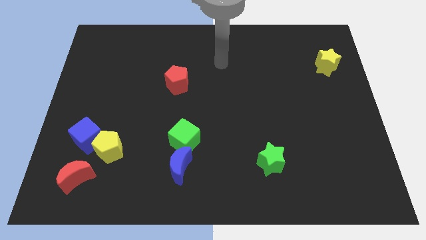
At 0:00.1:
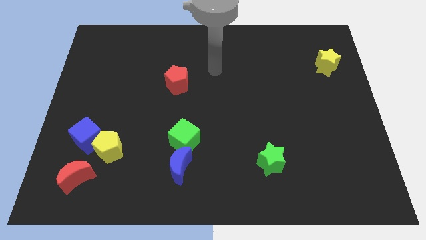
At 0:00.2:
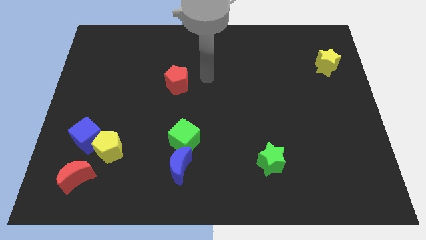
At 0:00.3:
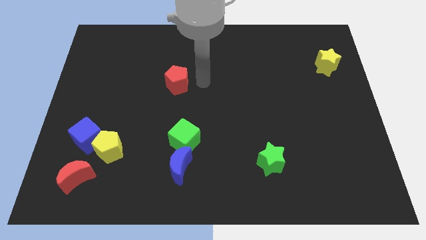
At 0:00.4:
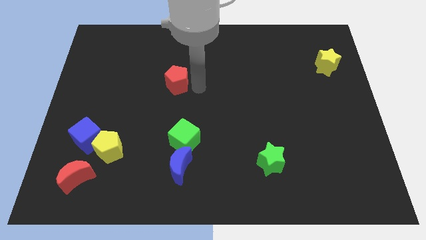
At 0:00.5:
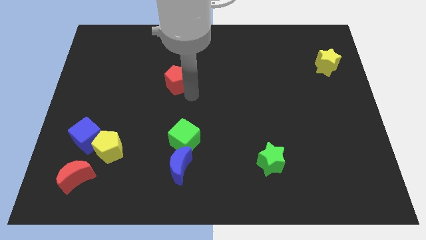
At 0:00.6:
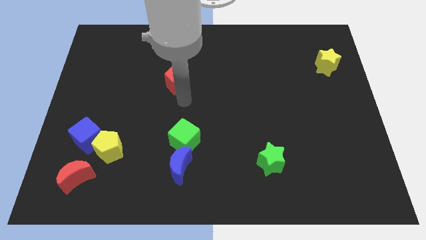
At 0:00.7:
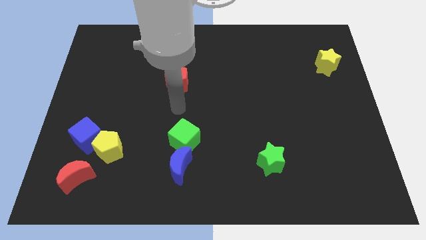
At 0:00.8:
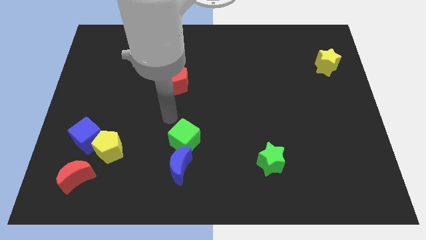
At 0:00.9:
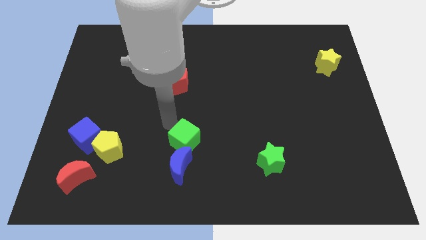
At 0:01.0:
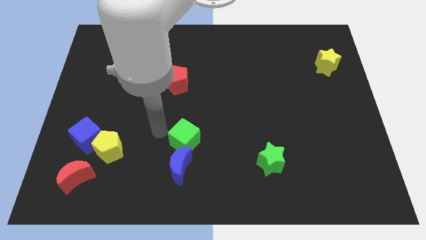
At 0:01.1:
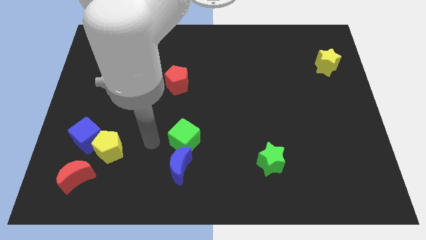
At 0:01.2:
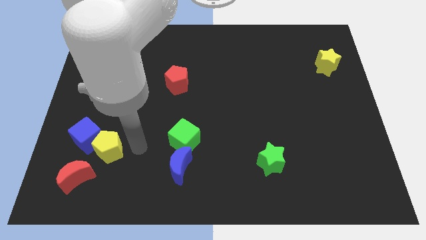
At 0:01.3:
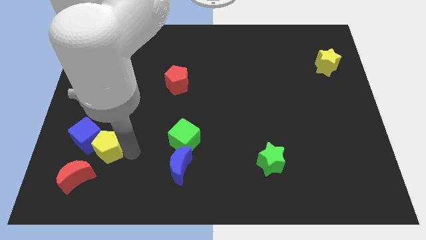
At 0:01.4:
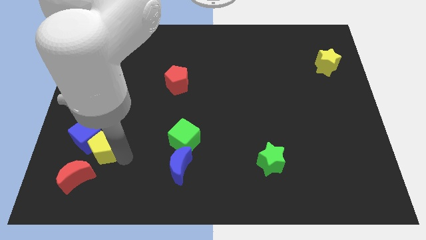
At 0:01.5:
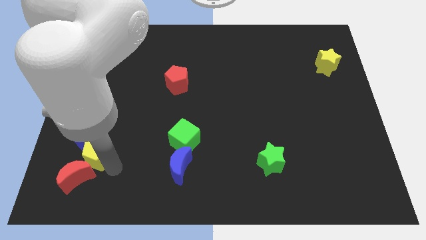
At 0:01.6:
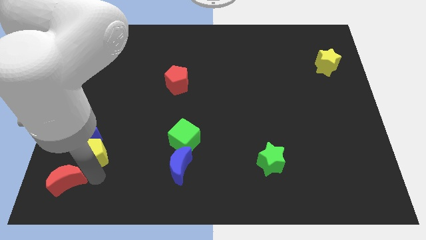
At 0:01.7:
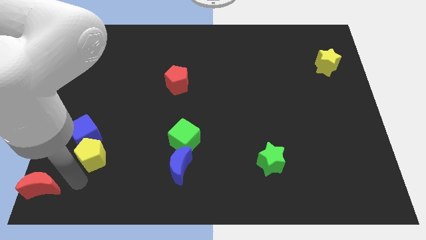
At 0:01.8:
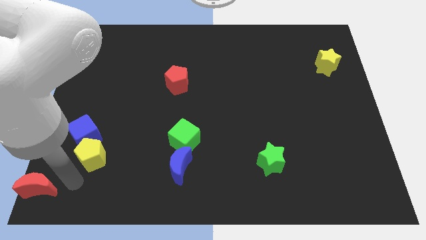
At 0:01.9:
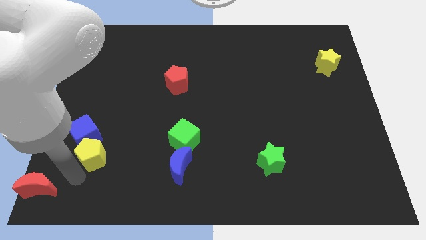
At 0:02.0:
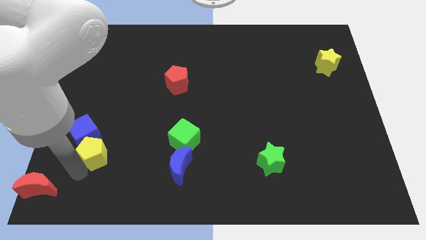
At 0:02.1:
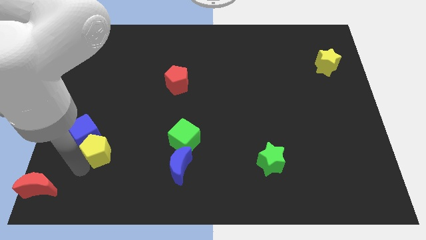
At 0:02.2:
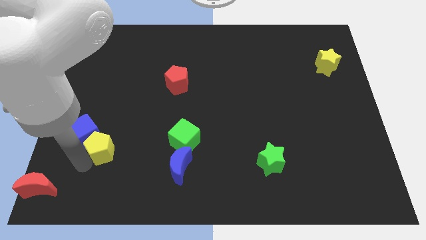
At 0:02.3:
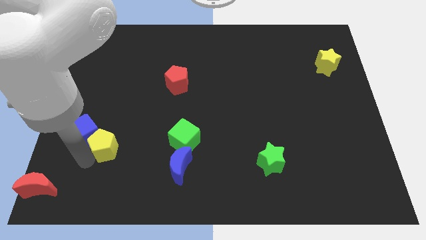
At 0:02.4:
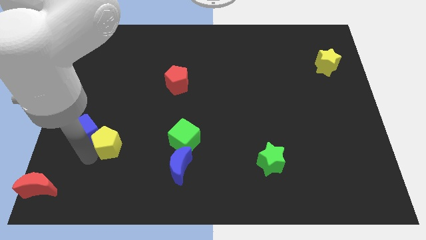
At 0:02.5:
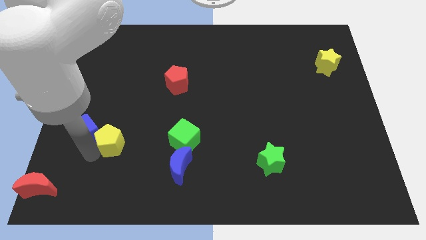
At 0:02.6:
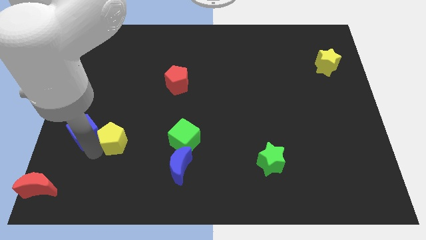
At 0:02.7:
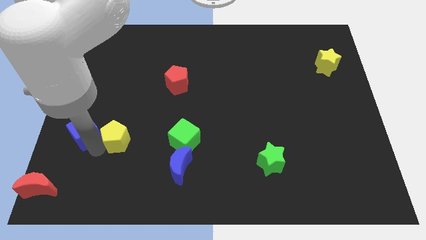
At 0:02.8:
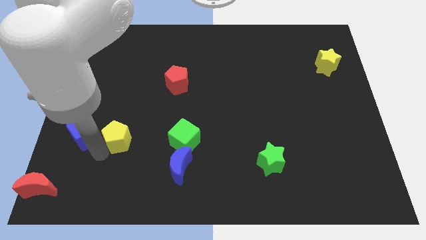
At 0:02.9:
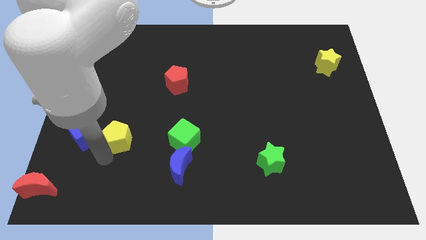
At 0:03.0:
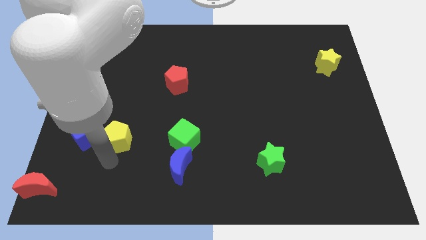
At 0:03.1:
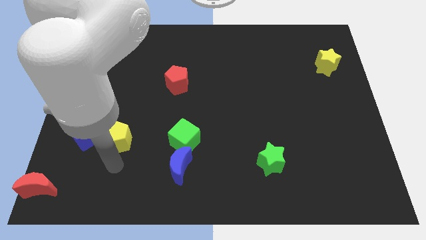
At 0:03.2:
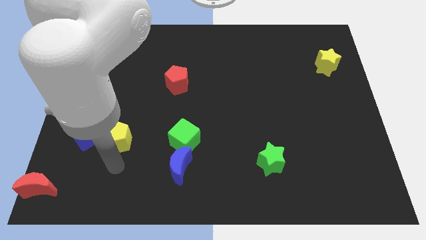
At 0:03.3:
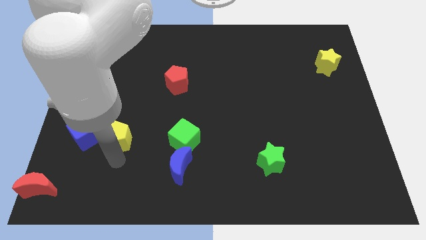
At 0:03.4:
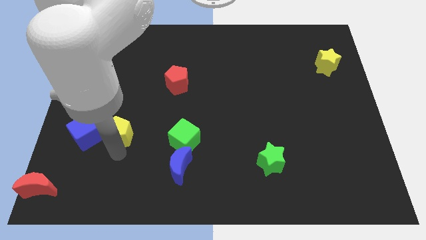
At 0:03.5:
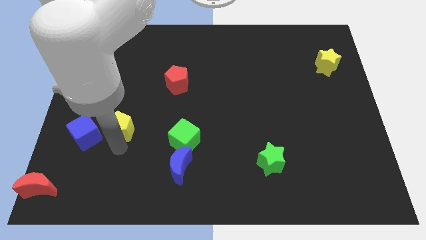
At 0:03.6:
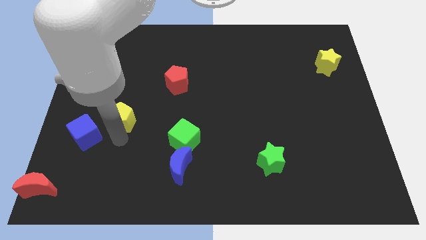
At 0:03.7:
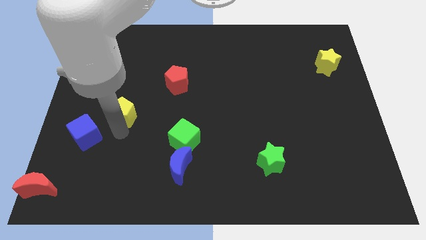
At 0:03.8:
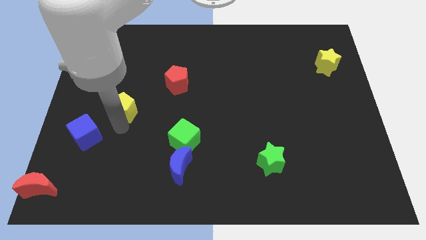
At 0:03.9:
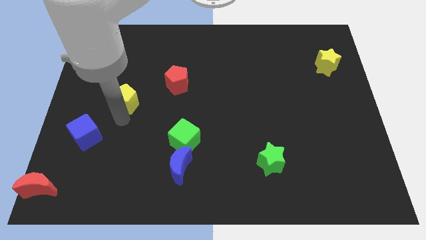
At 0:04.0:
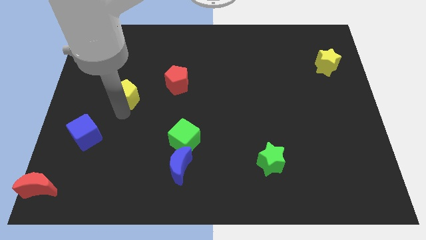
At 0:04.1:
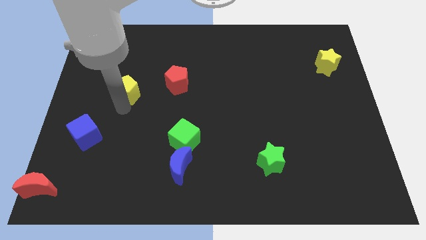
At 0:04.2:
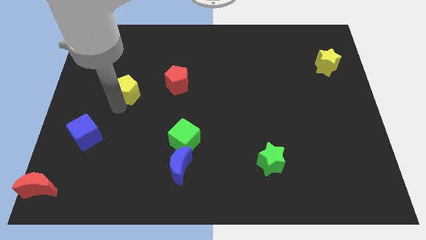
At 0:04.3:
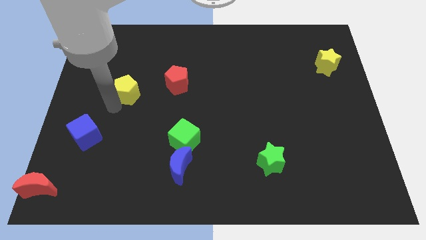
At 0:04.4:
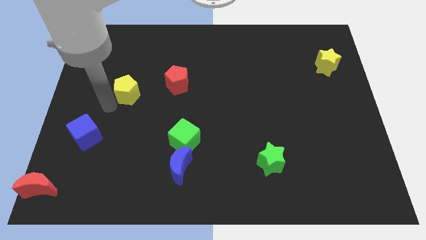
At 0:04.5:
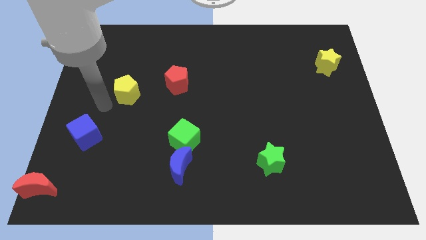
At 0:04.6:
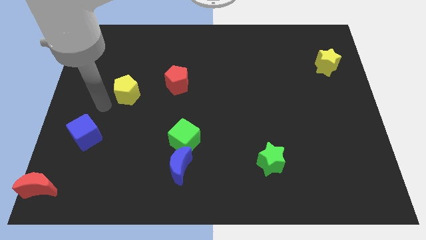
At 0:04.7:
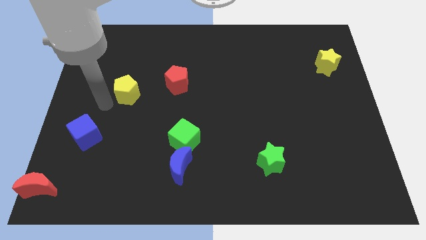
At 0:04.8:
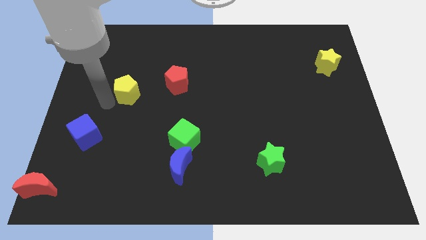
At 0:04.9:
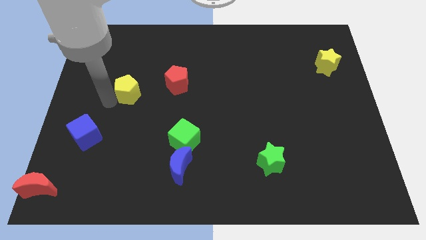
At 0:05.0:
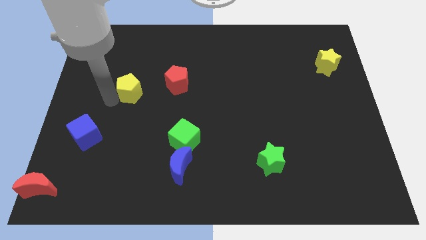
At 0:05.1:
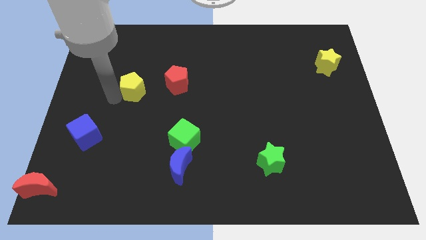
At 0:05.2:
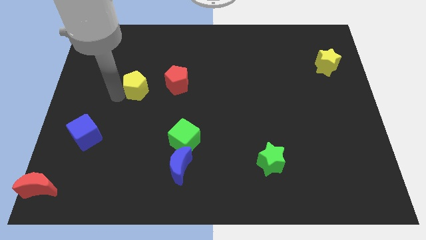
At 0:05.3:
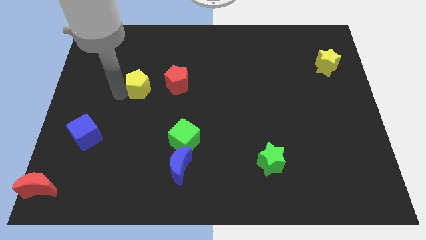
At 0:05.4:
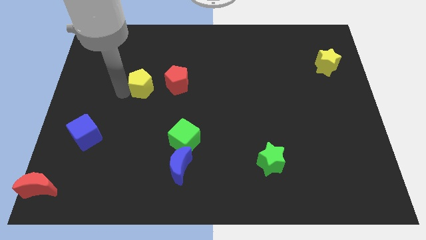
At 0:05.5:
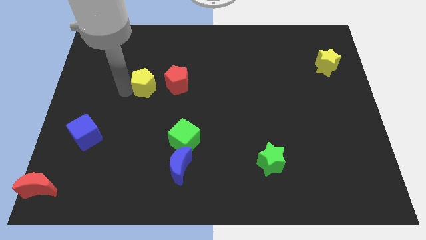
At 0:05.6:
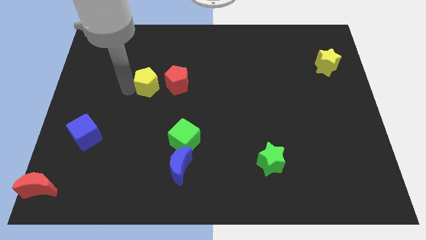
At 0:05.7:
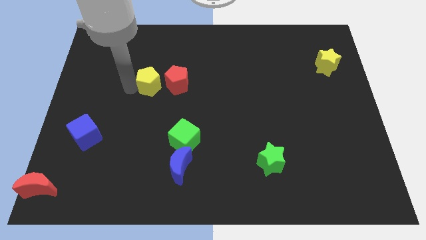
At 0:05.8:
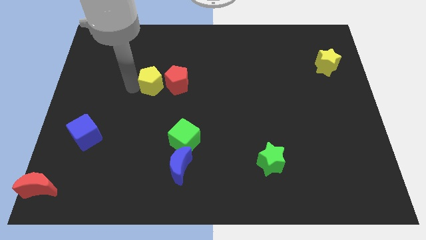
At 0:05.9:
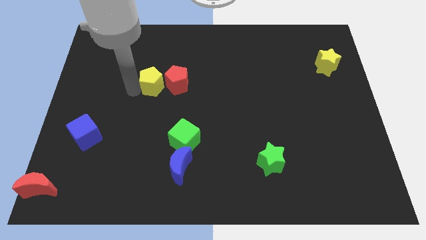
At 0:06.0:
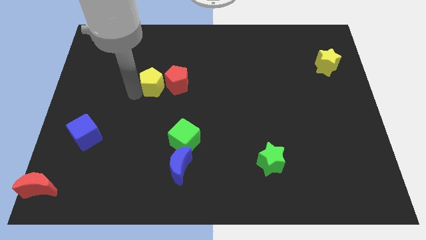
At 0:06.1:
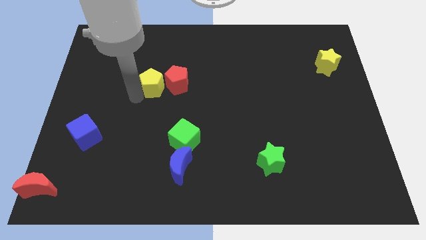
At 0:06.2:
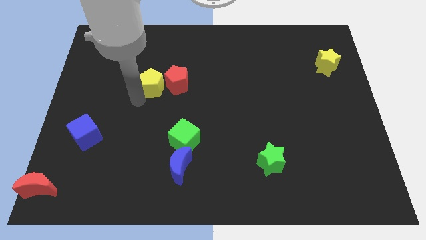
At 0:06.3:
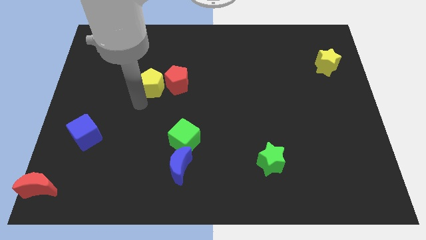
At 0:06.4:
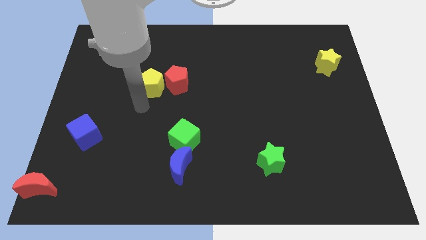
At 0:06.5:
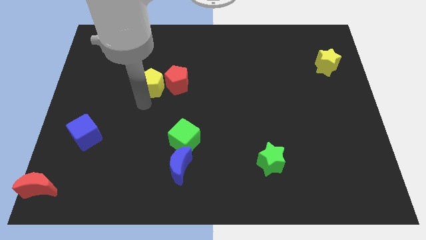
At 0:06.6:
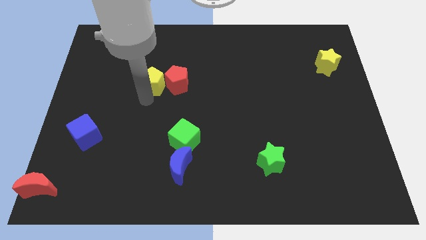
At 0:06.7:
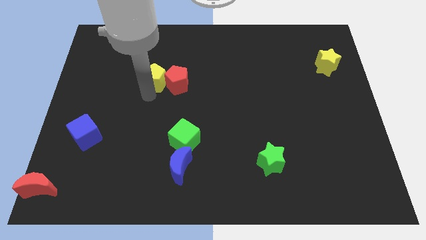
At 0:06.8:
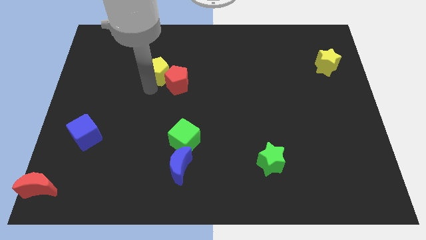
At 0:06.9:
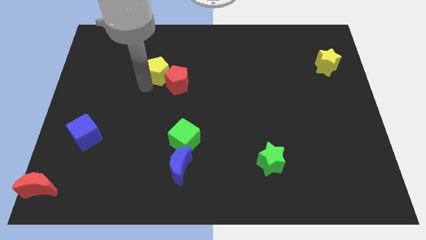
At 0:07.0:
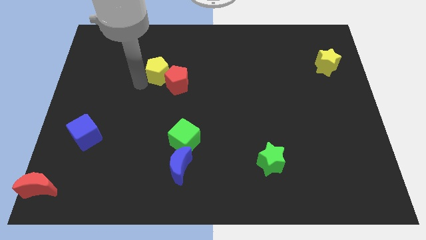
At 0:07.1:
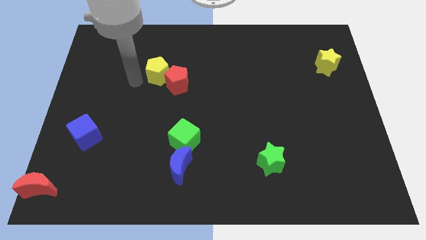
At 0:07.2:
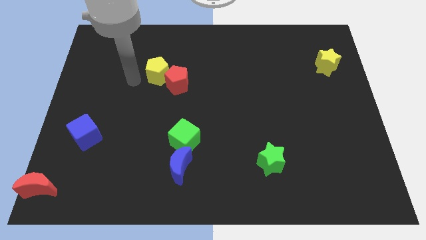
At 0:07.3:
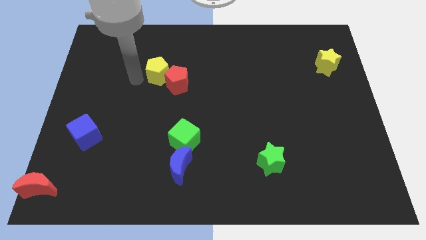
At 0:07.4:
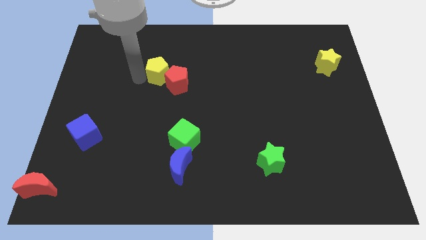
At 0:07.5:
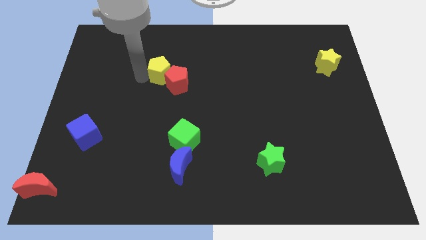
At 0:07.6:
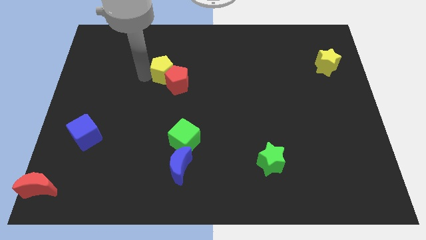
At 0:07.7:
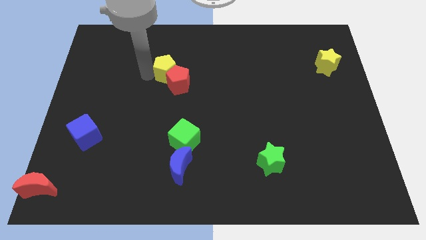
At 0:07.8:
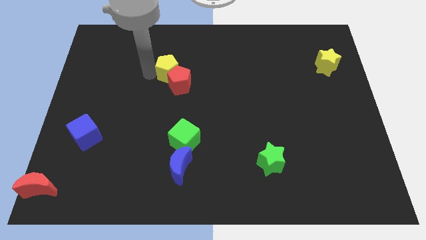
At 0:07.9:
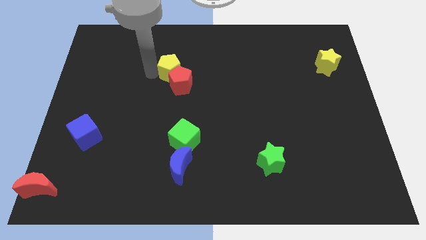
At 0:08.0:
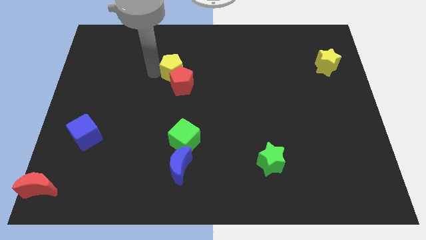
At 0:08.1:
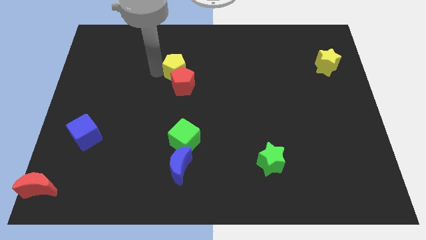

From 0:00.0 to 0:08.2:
put the yellow pentagon to the top right of the red pentagon
